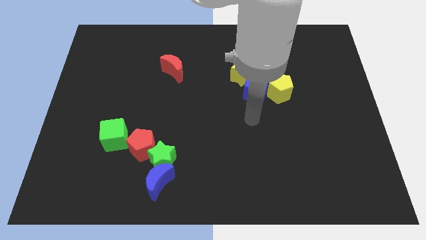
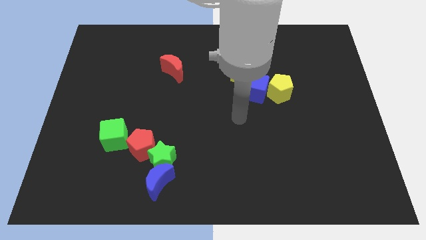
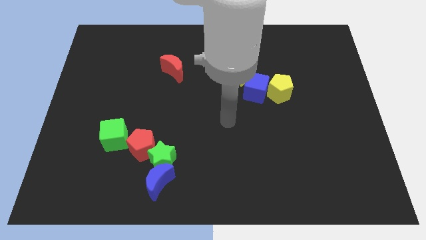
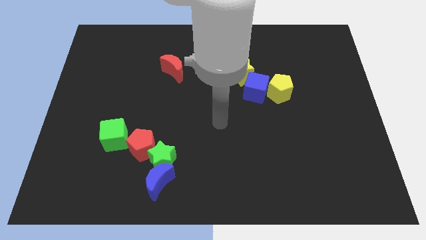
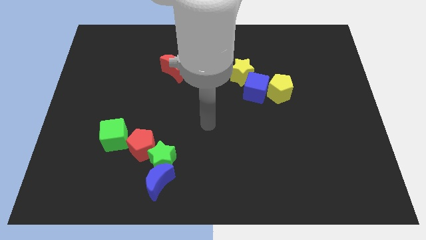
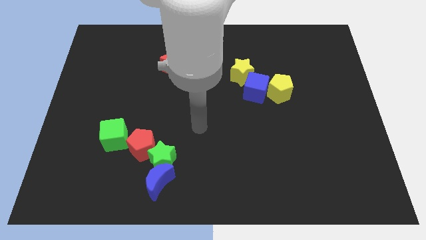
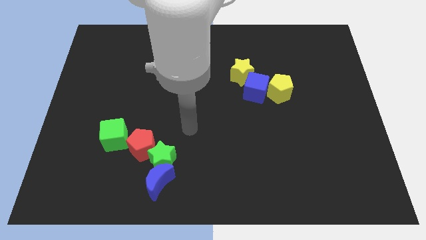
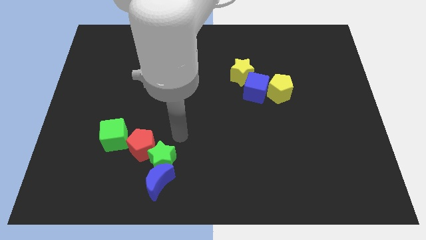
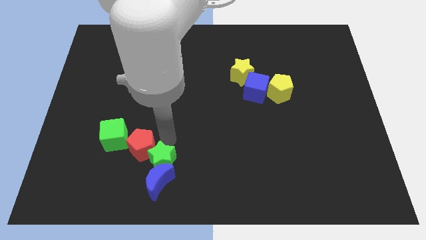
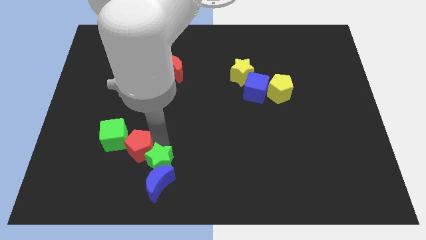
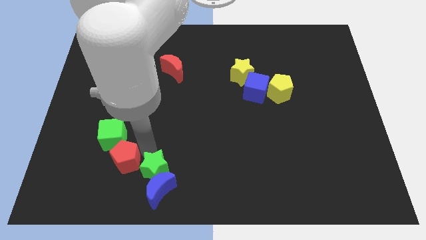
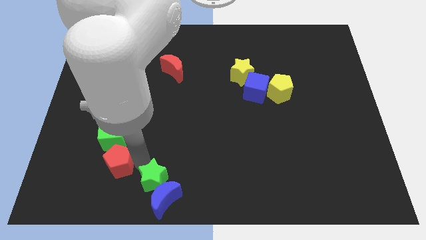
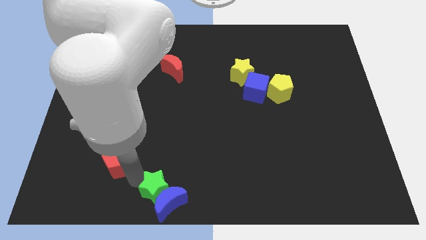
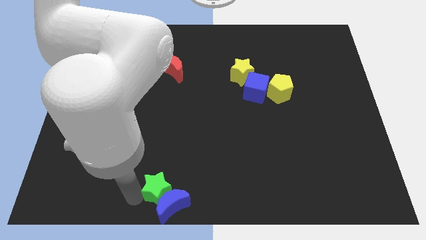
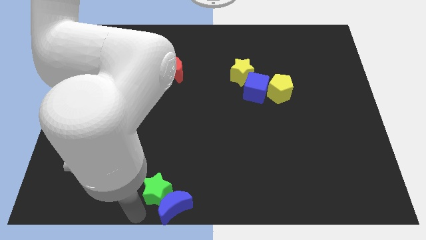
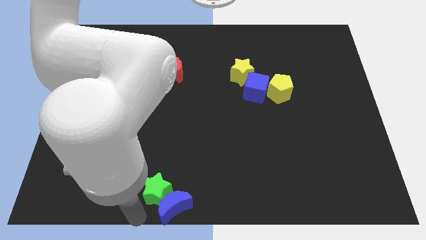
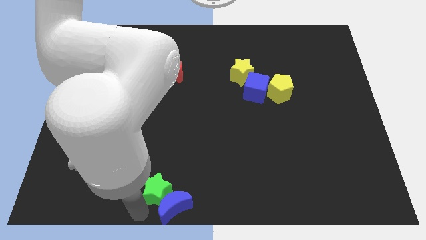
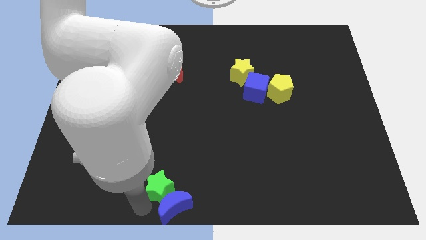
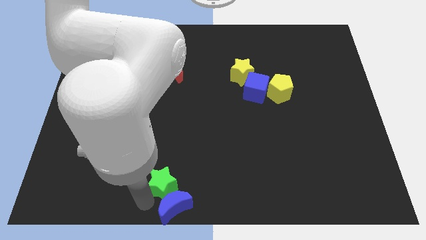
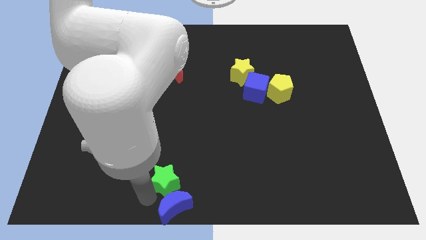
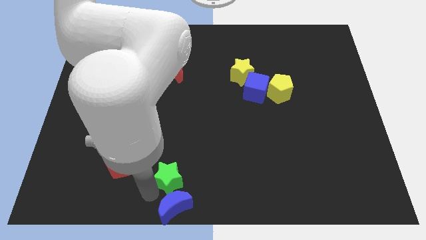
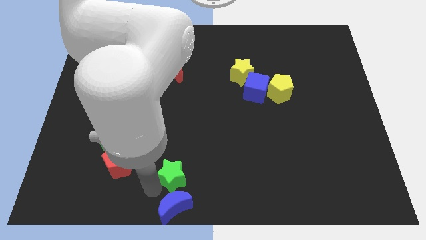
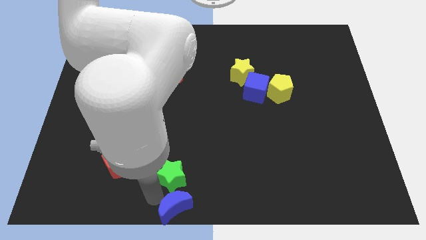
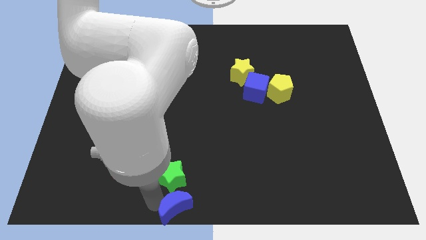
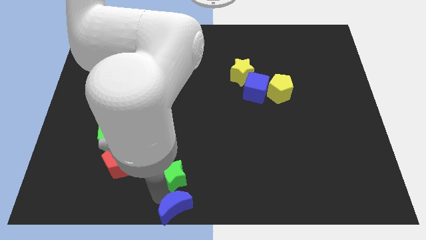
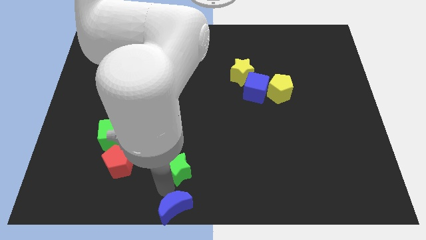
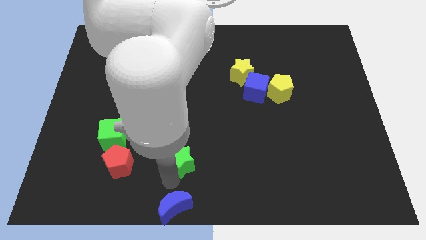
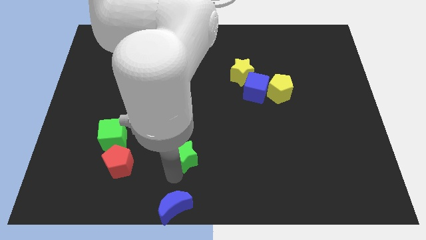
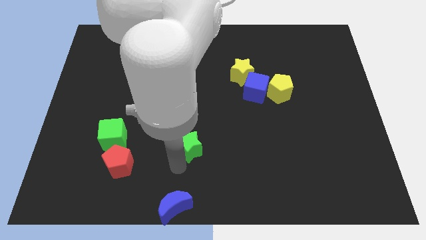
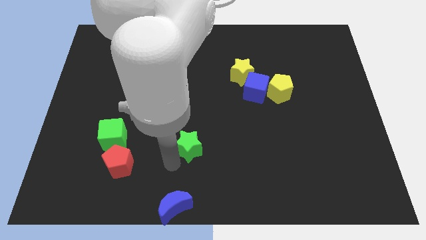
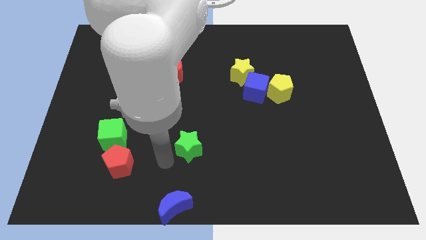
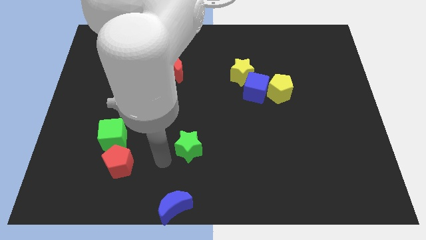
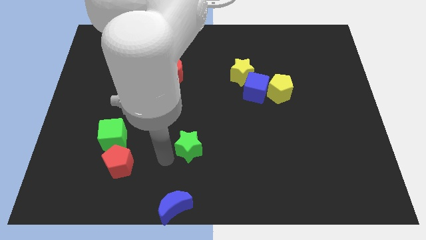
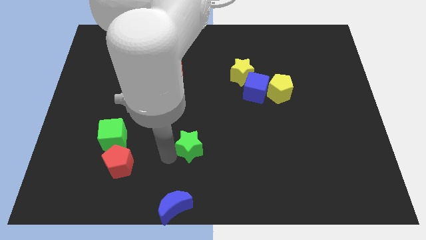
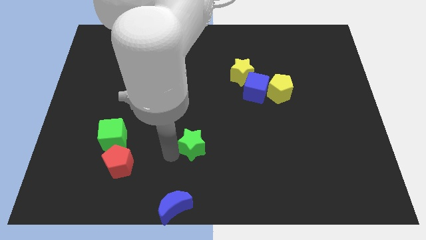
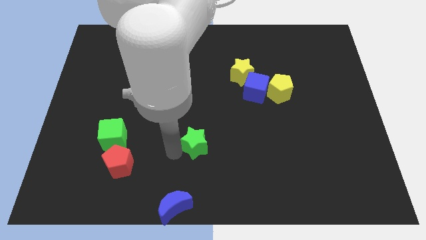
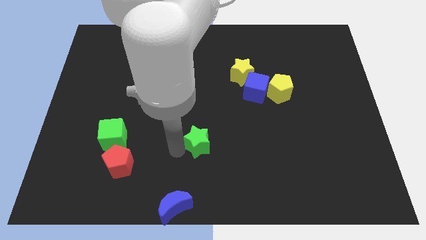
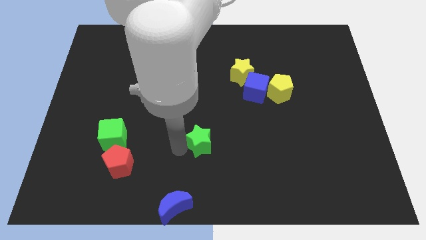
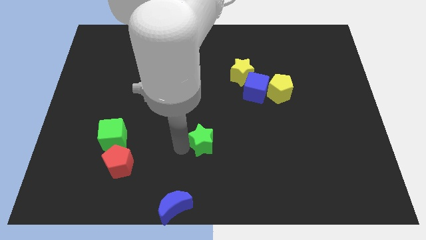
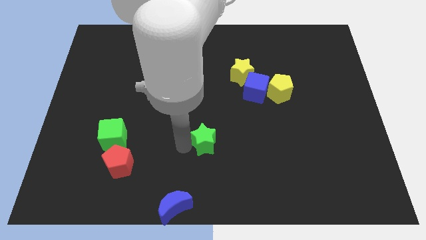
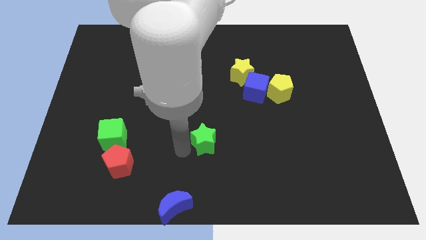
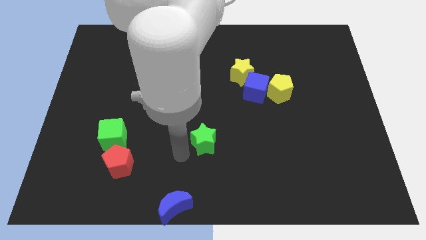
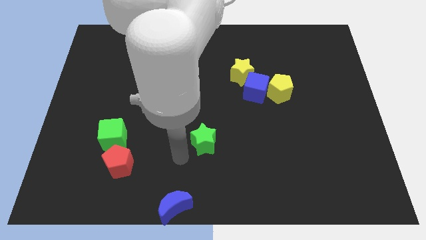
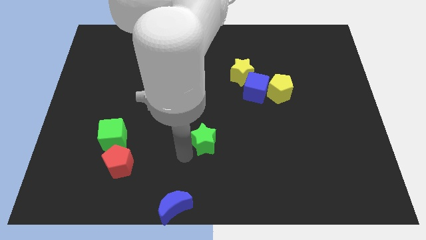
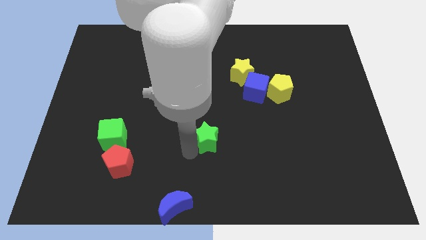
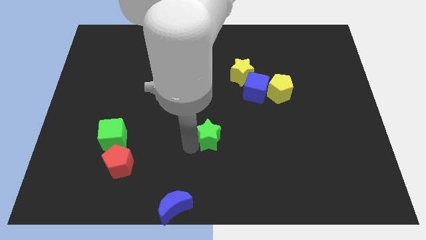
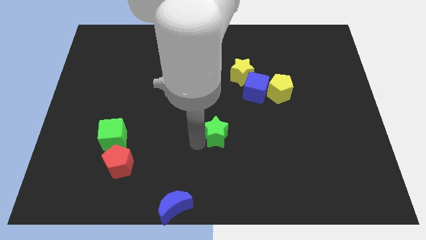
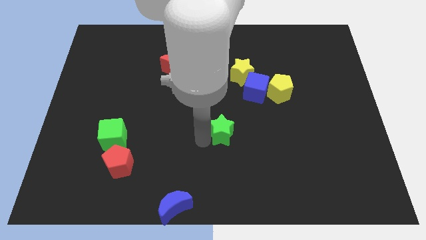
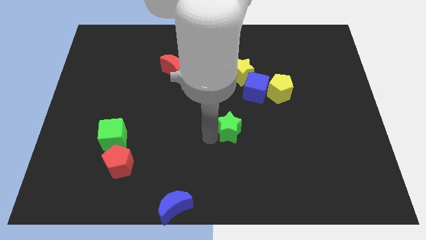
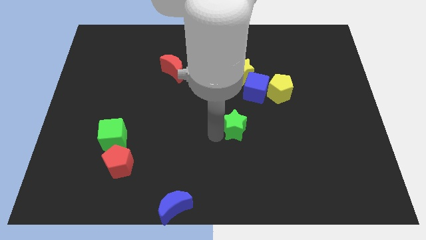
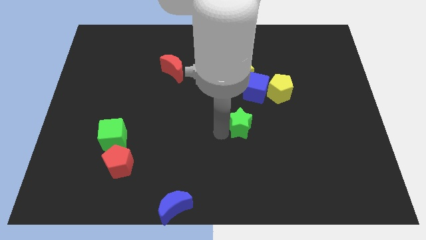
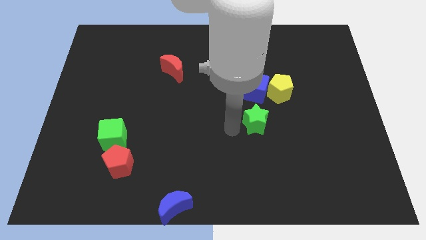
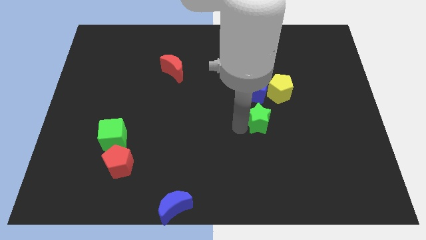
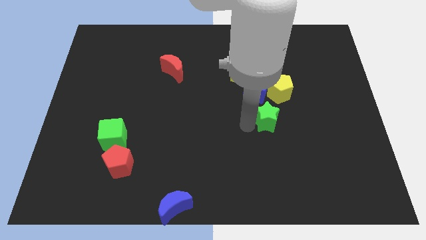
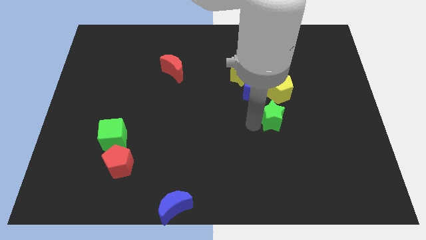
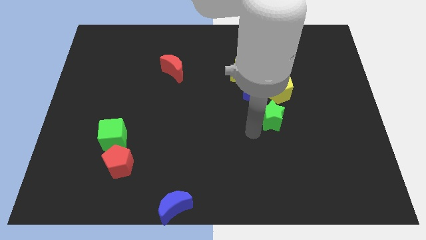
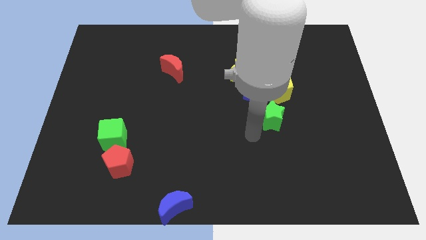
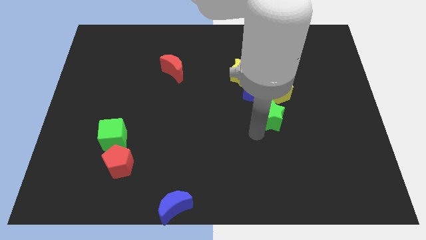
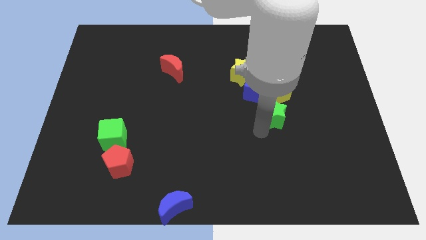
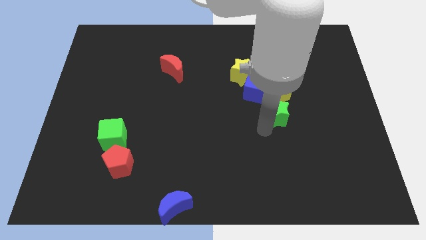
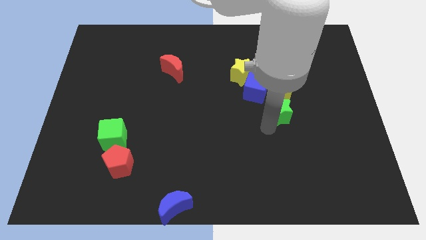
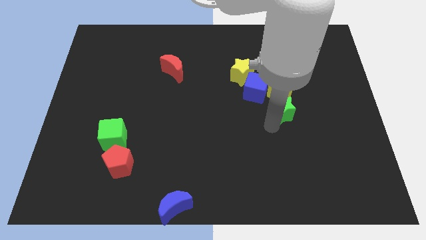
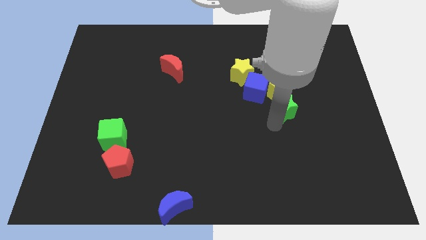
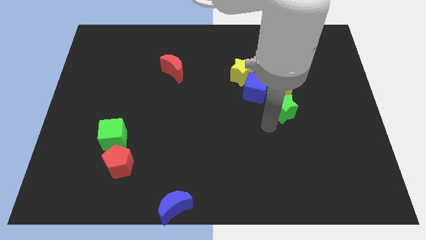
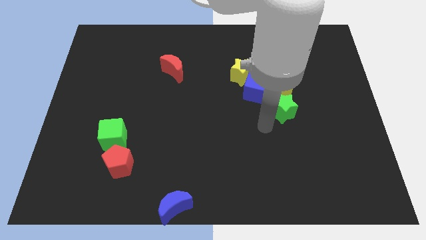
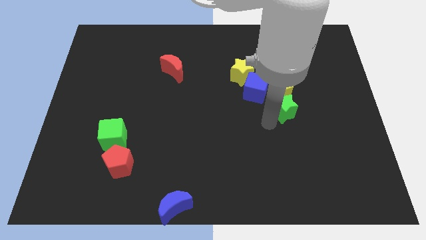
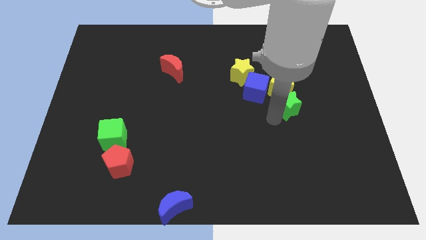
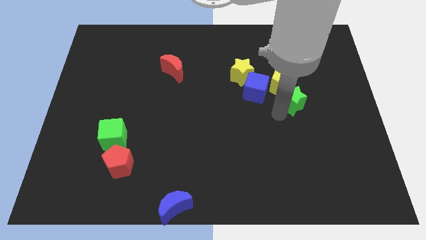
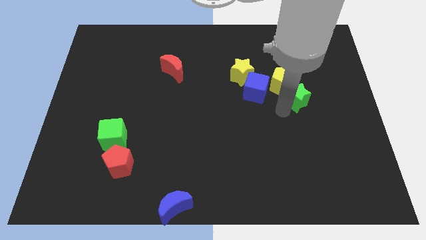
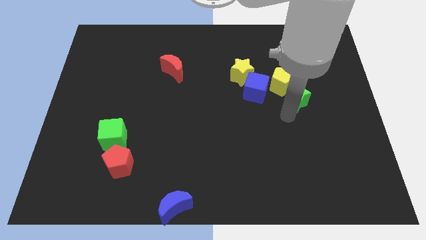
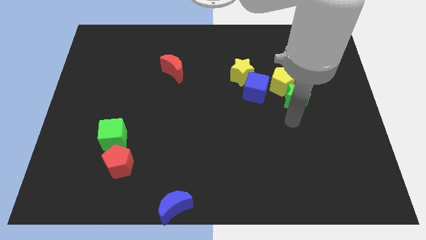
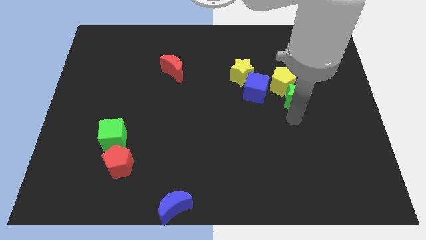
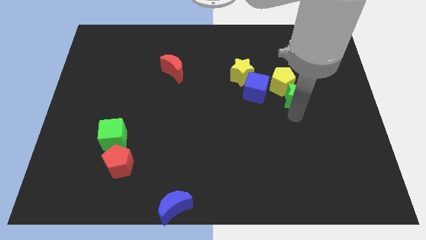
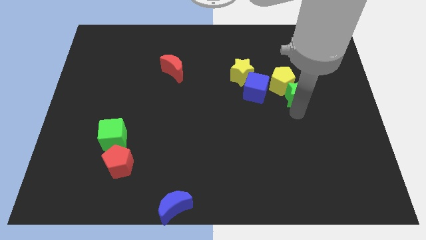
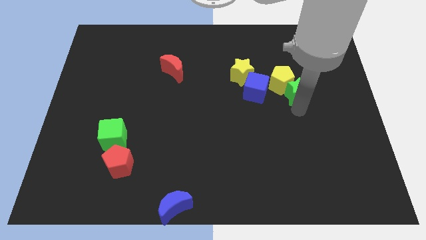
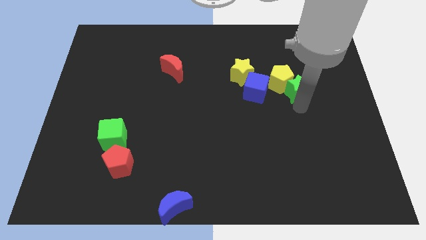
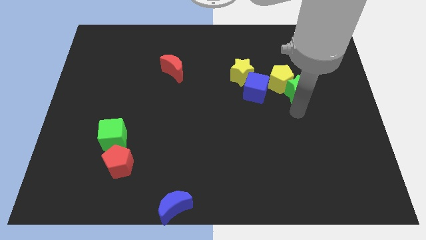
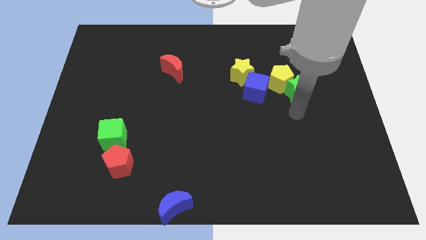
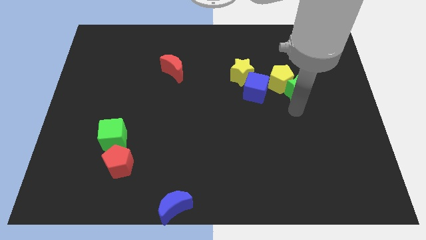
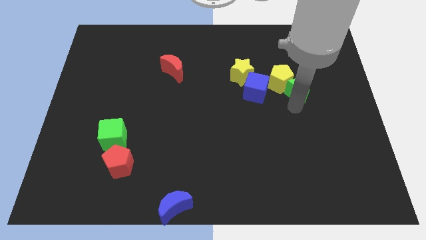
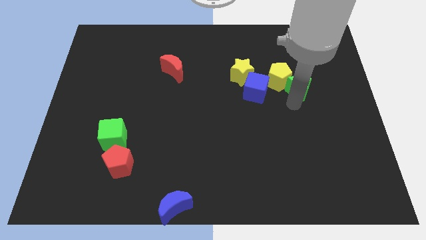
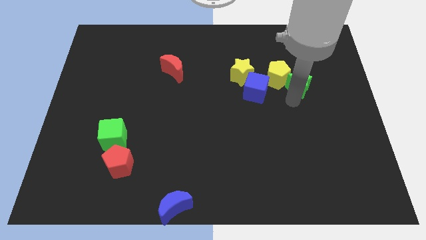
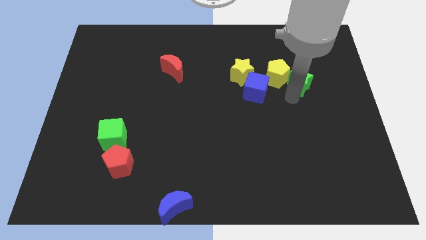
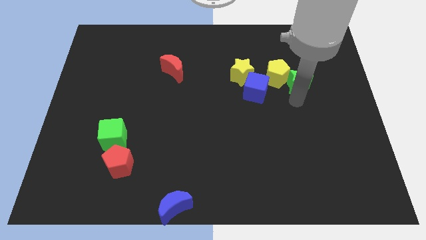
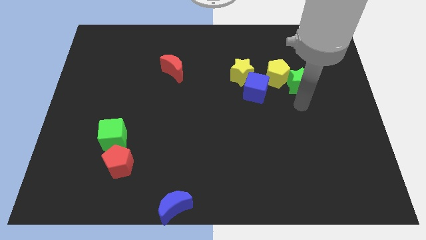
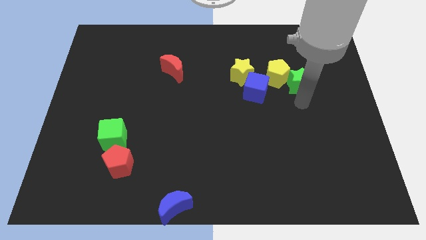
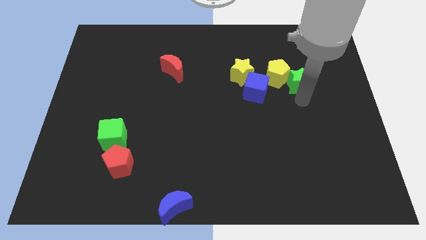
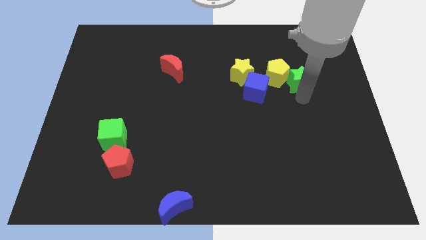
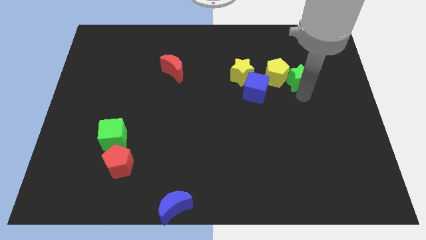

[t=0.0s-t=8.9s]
move the green star to the top right side of the yellow pentagon
